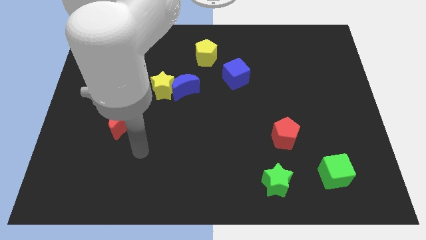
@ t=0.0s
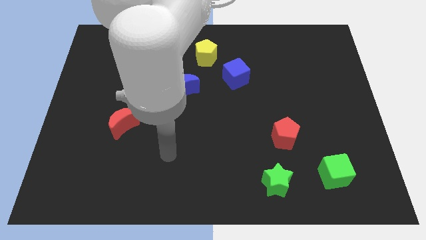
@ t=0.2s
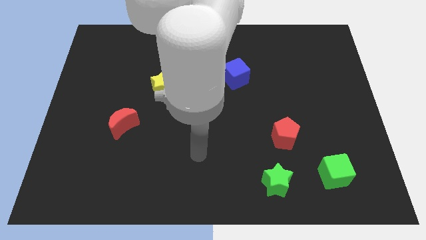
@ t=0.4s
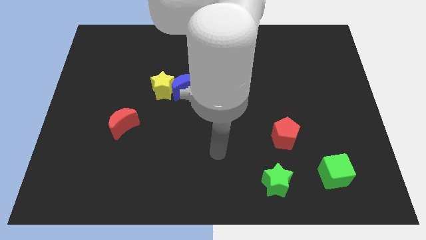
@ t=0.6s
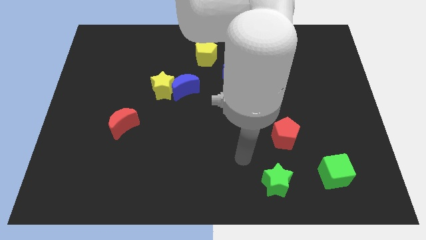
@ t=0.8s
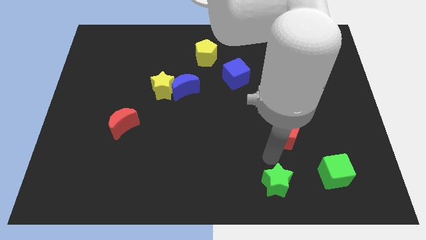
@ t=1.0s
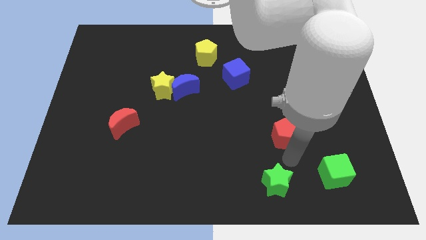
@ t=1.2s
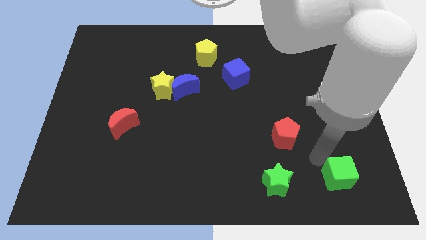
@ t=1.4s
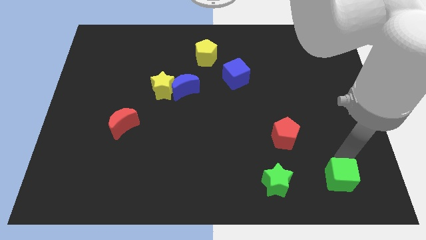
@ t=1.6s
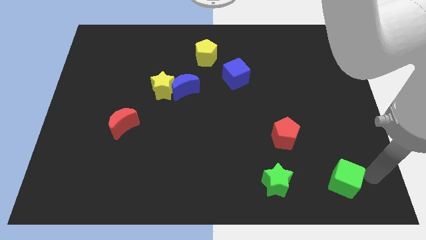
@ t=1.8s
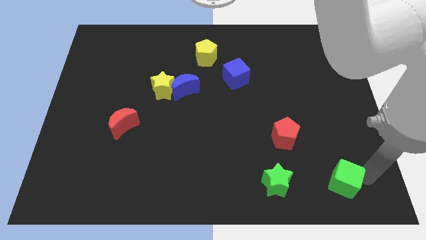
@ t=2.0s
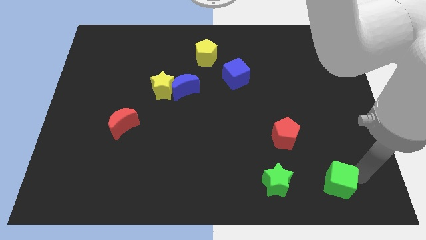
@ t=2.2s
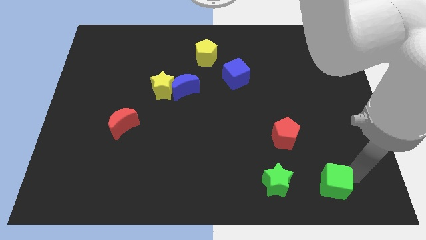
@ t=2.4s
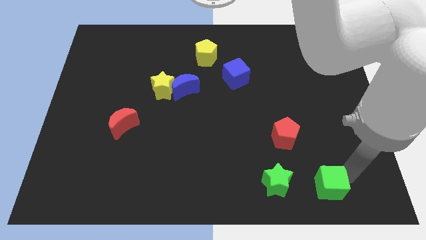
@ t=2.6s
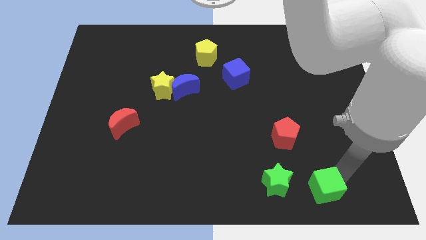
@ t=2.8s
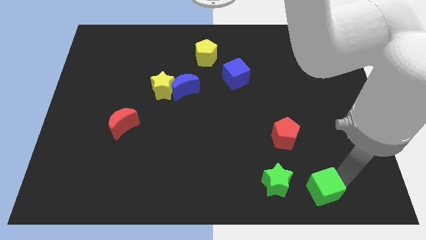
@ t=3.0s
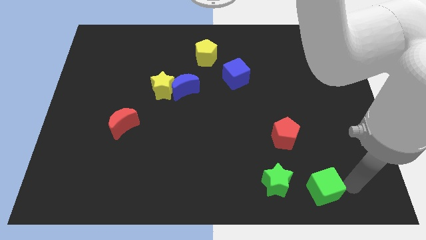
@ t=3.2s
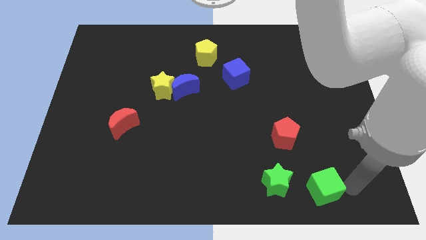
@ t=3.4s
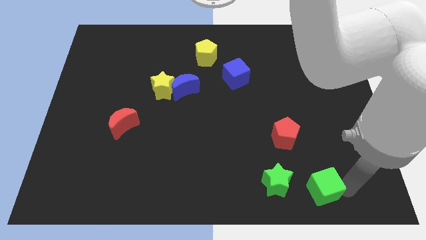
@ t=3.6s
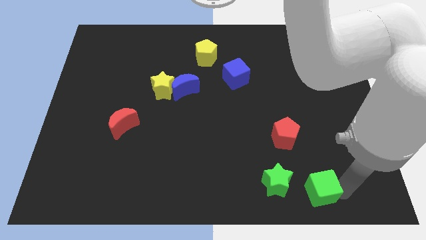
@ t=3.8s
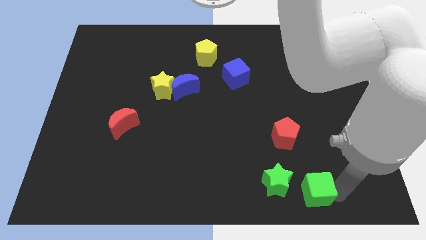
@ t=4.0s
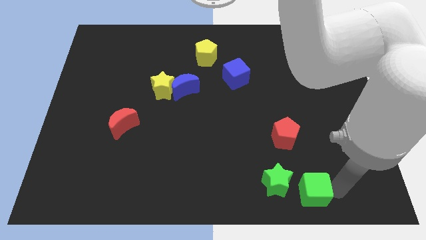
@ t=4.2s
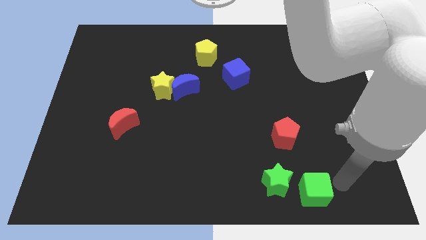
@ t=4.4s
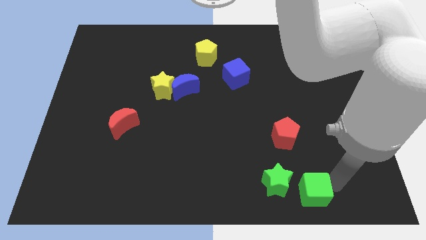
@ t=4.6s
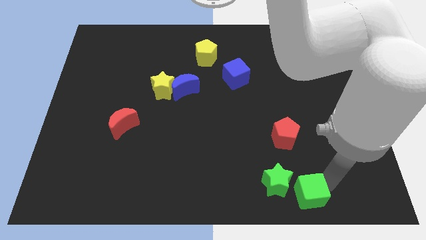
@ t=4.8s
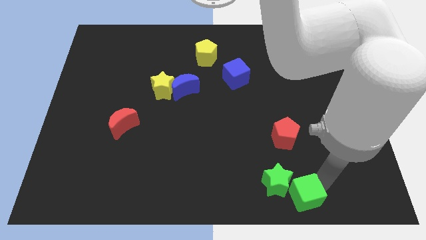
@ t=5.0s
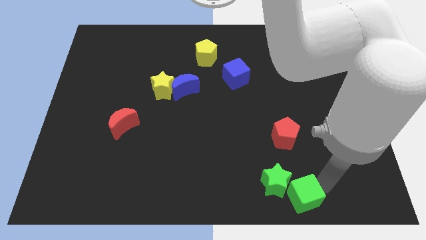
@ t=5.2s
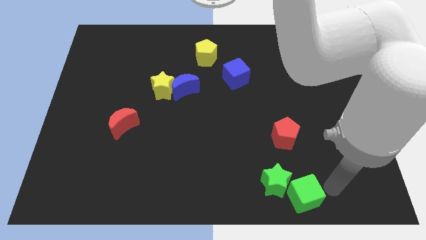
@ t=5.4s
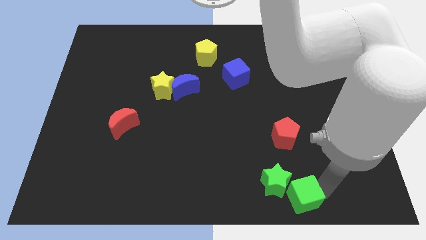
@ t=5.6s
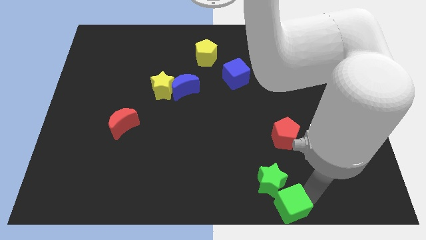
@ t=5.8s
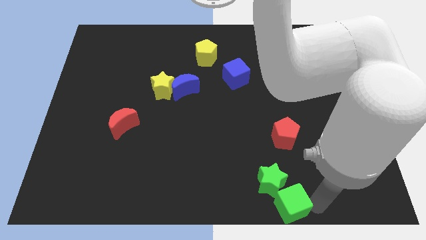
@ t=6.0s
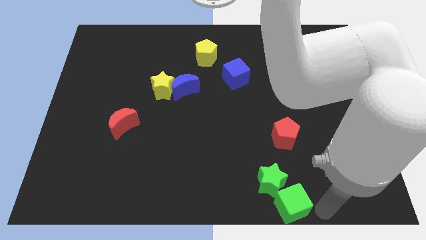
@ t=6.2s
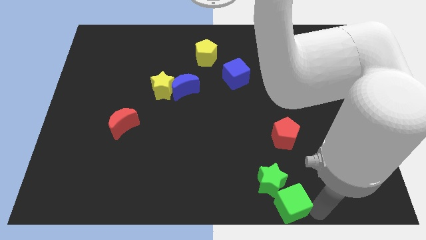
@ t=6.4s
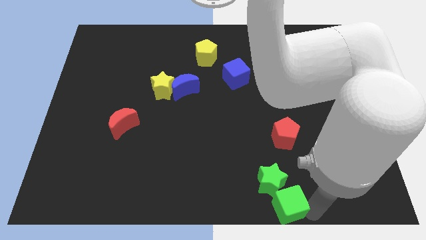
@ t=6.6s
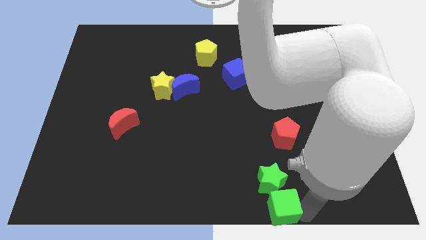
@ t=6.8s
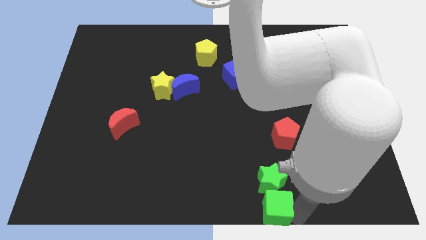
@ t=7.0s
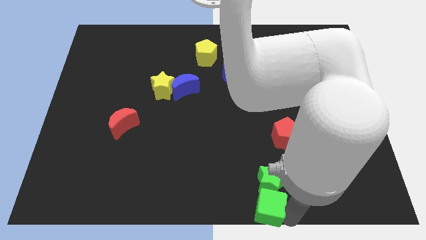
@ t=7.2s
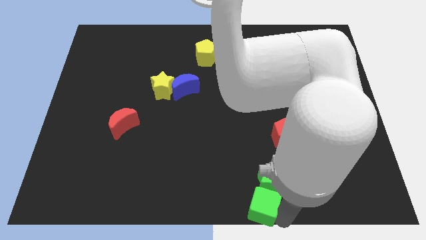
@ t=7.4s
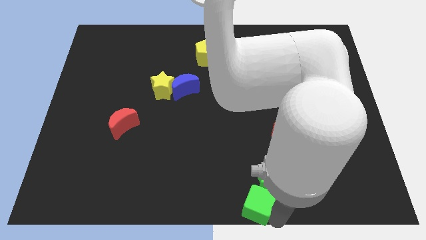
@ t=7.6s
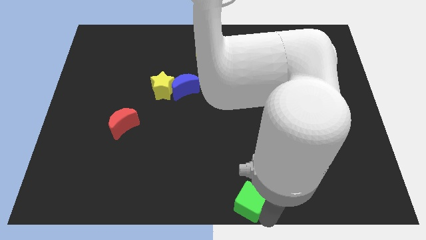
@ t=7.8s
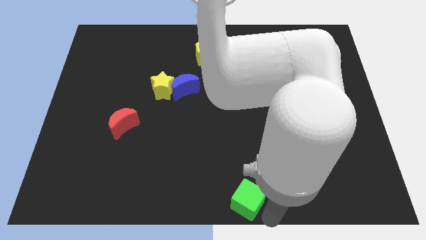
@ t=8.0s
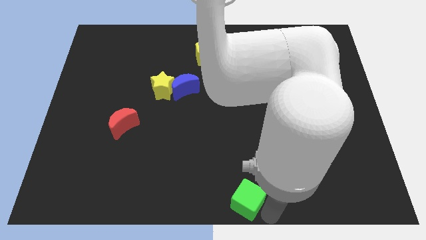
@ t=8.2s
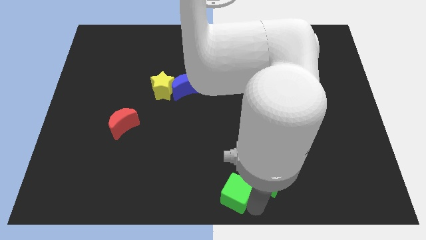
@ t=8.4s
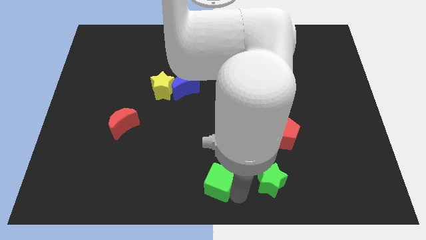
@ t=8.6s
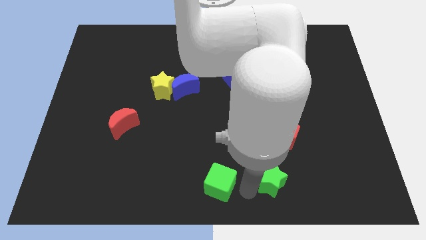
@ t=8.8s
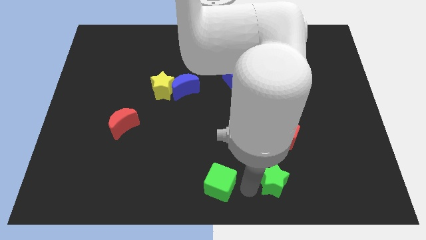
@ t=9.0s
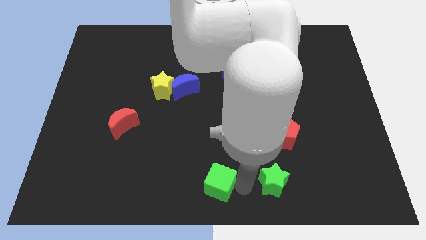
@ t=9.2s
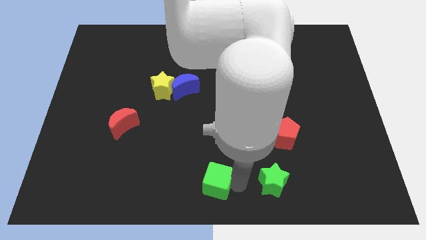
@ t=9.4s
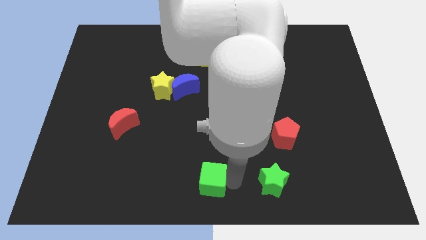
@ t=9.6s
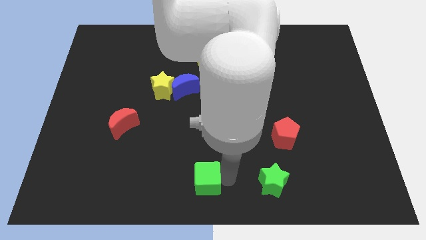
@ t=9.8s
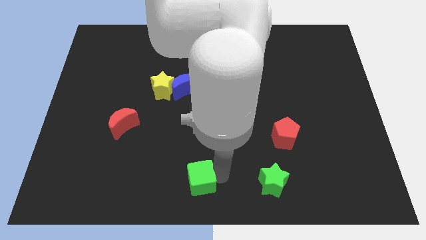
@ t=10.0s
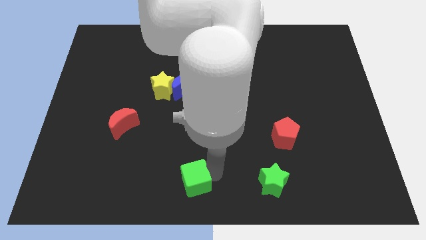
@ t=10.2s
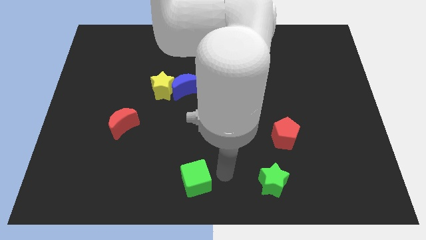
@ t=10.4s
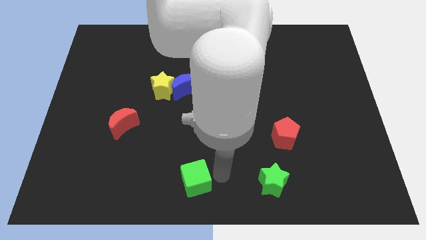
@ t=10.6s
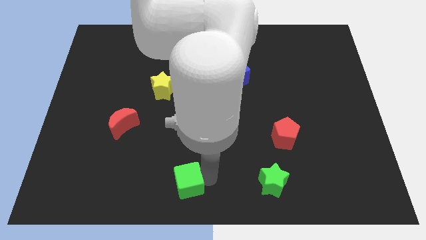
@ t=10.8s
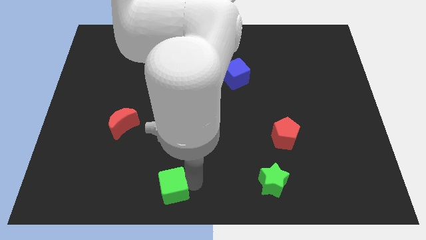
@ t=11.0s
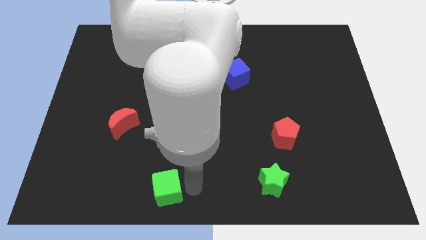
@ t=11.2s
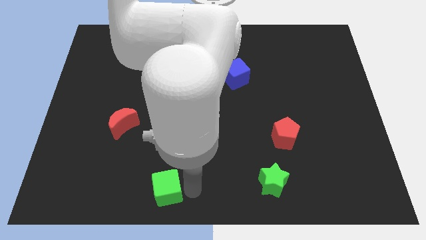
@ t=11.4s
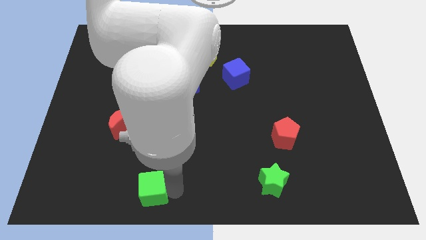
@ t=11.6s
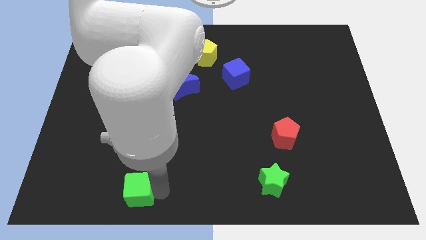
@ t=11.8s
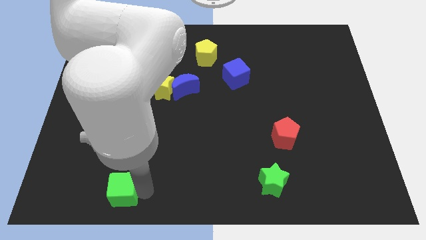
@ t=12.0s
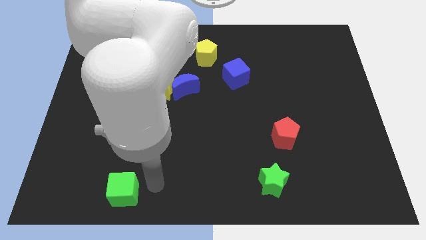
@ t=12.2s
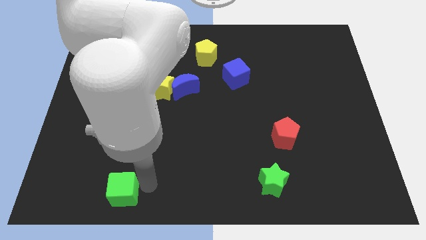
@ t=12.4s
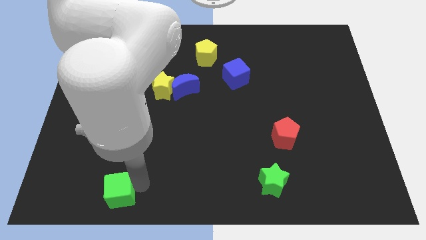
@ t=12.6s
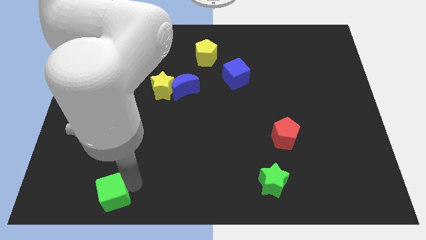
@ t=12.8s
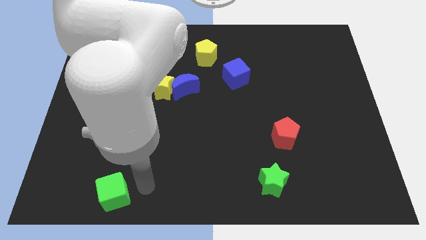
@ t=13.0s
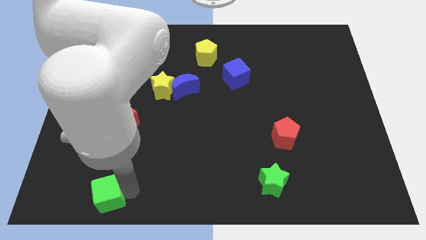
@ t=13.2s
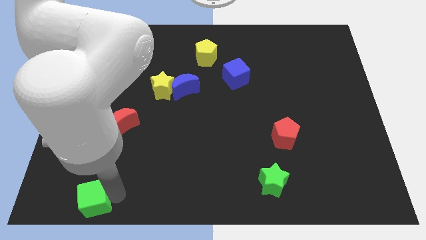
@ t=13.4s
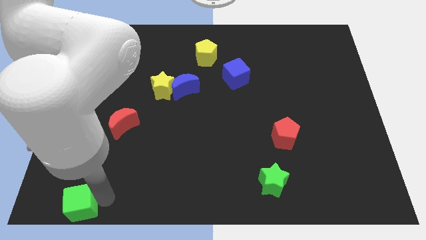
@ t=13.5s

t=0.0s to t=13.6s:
slide the green cube to the lower left corner
